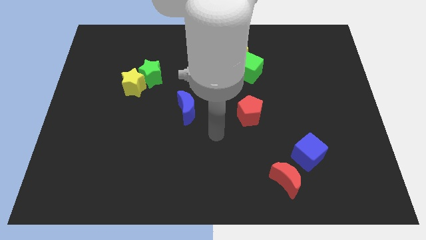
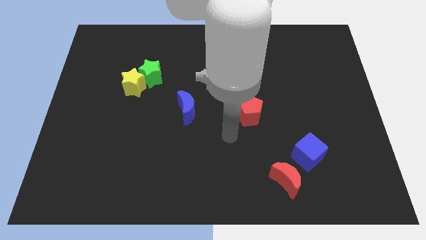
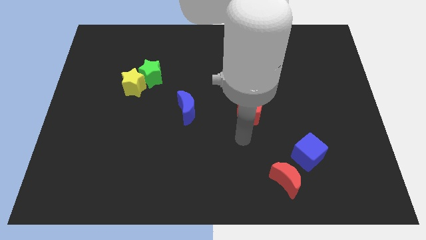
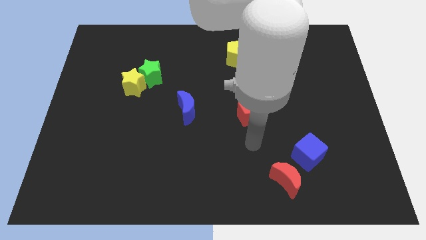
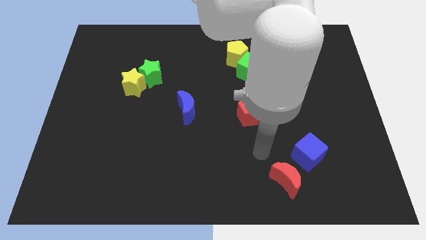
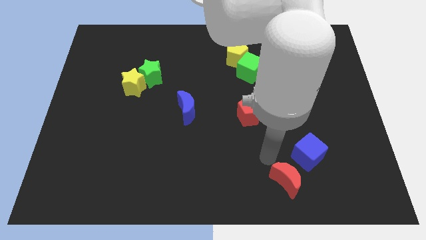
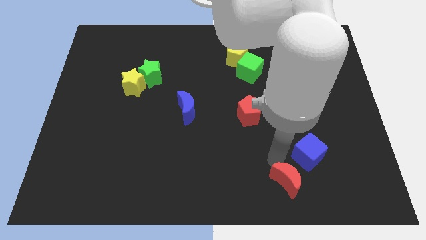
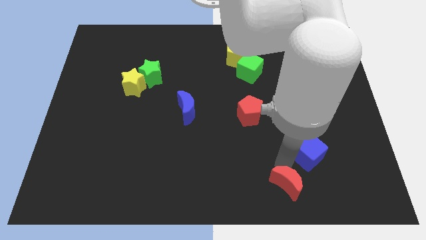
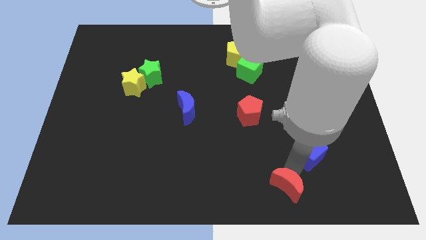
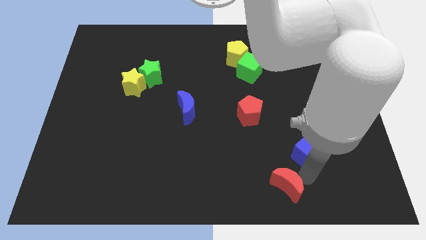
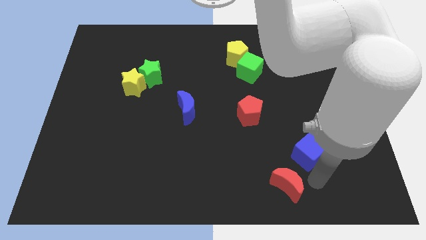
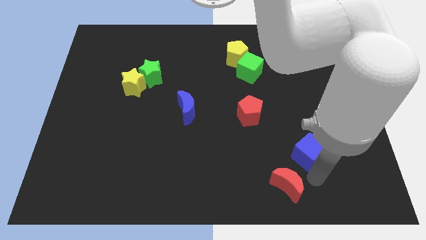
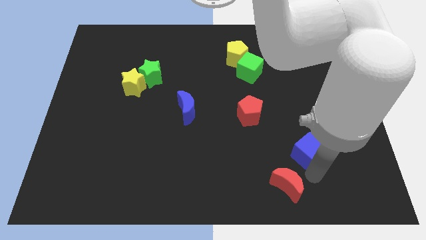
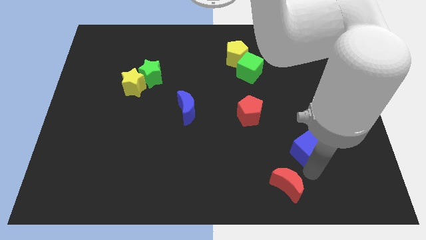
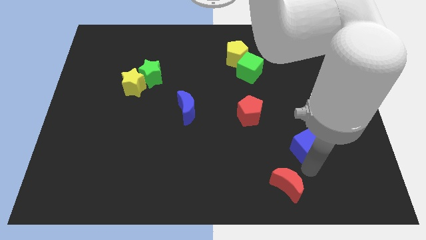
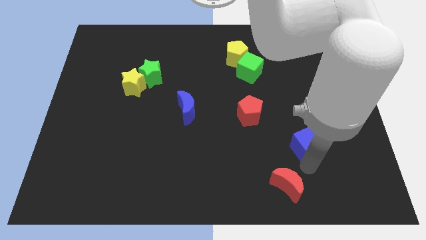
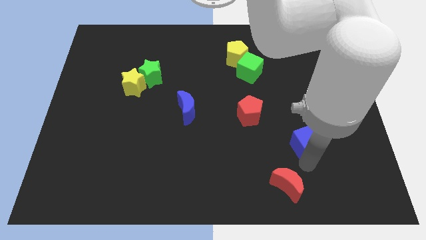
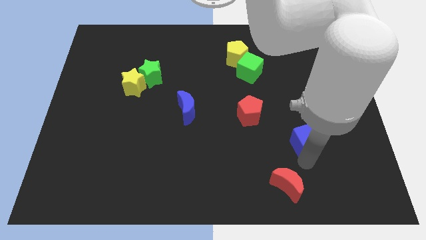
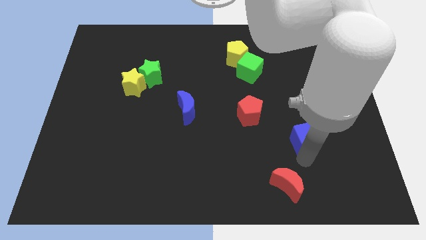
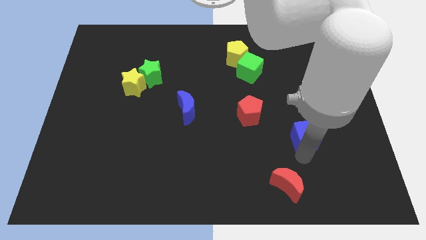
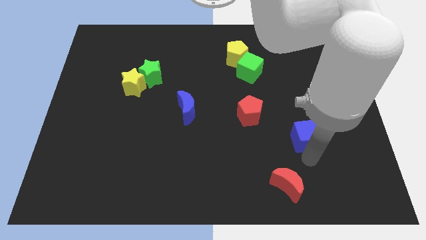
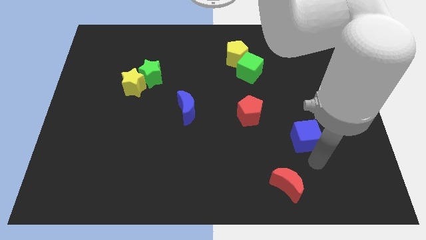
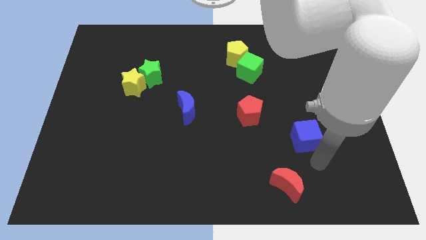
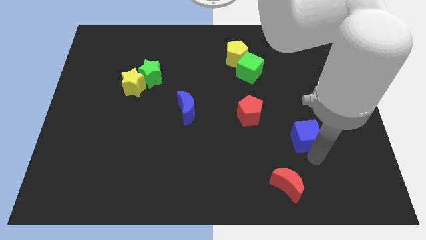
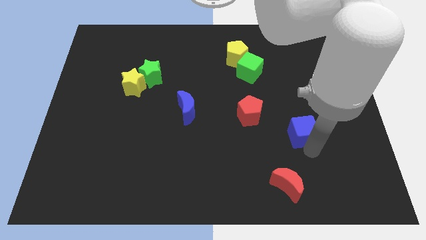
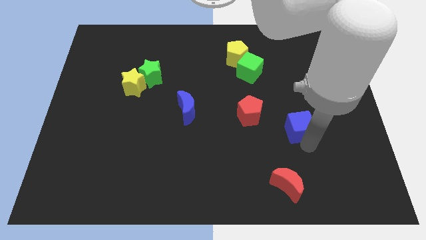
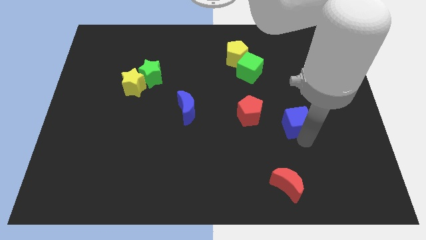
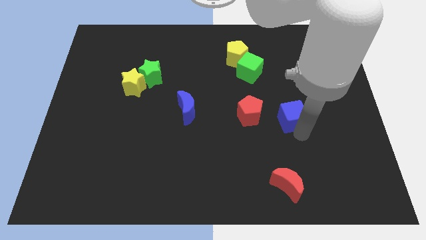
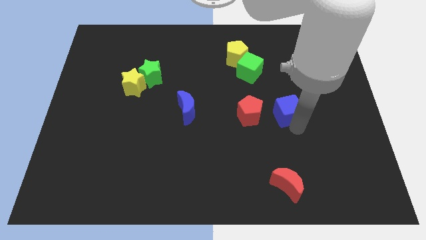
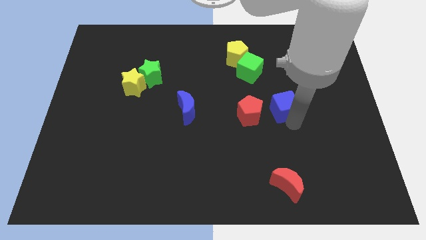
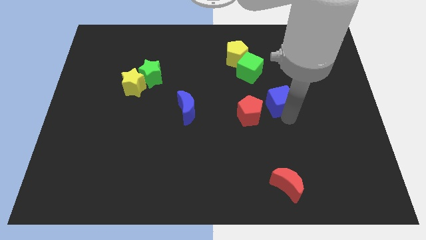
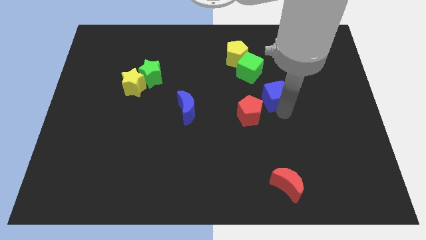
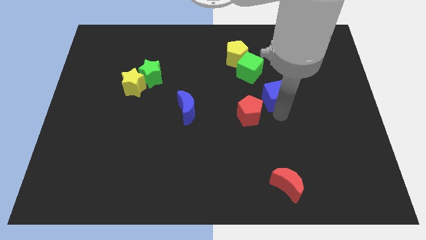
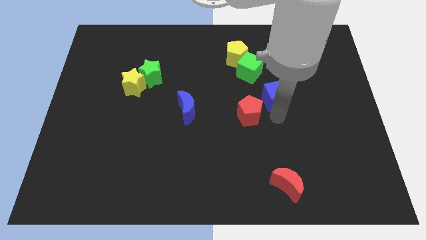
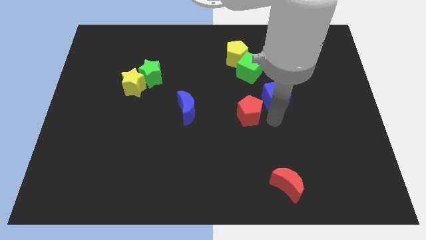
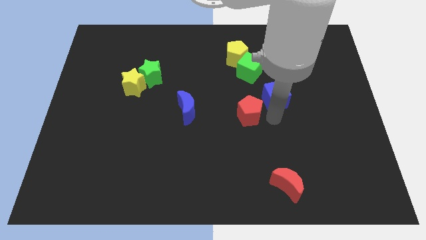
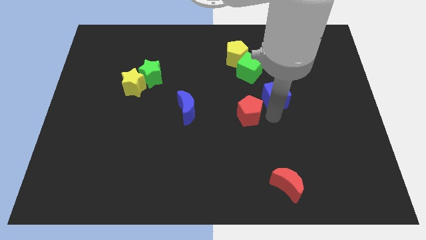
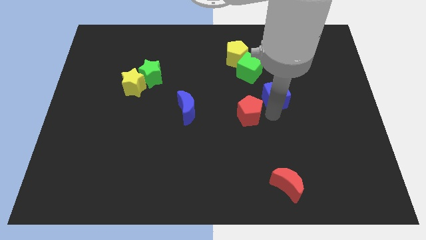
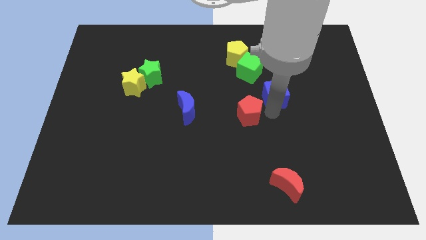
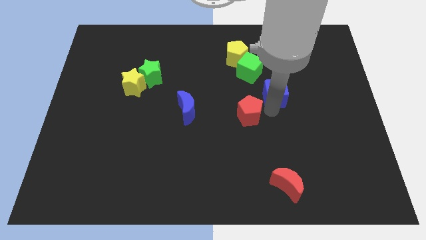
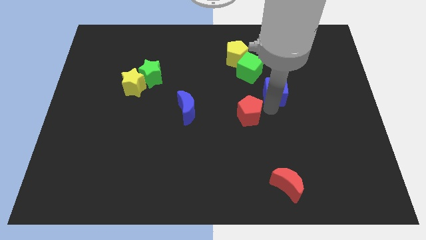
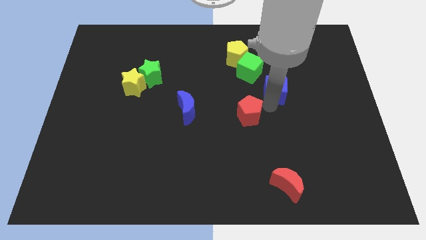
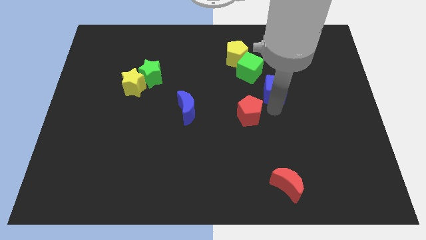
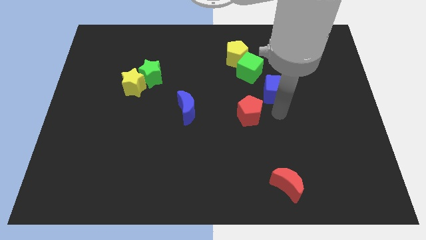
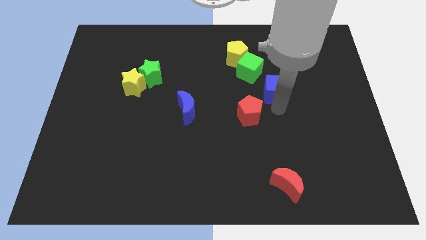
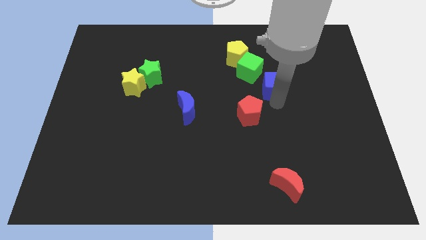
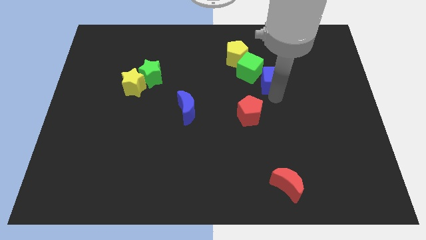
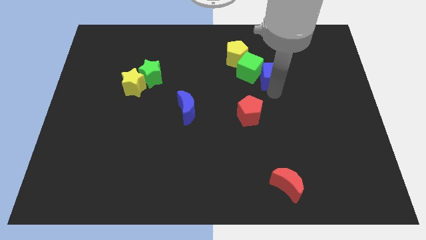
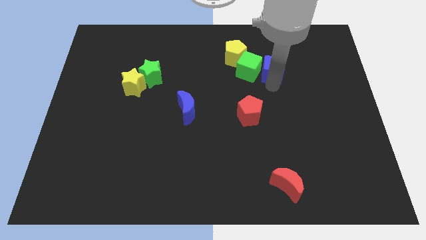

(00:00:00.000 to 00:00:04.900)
slide the blue cube to the top right side of the green cube

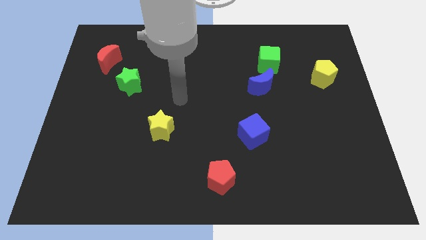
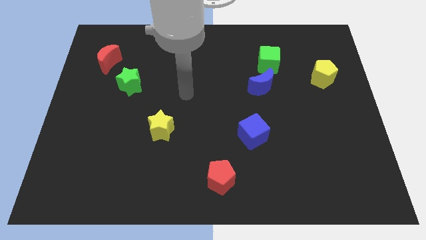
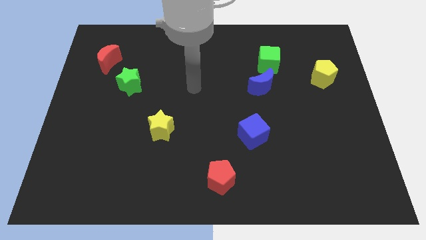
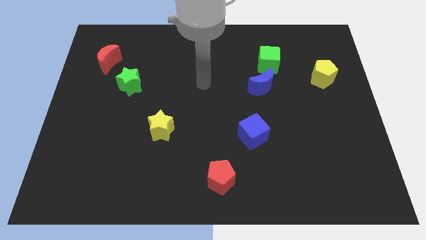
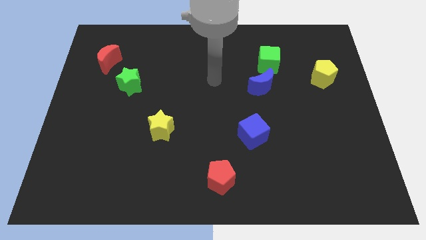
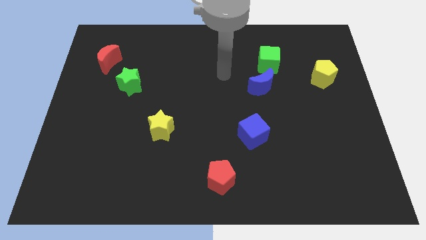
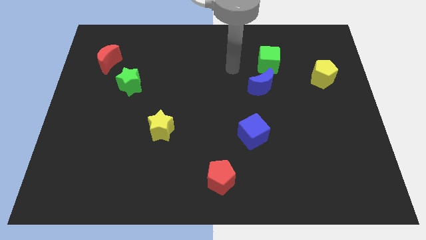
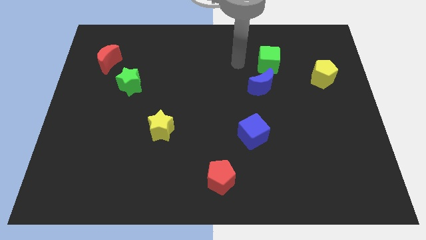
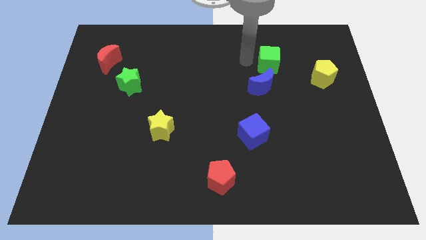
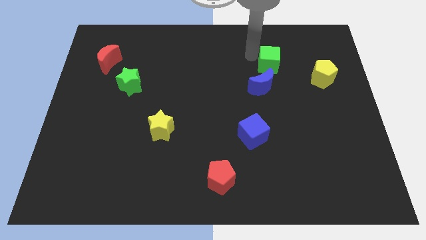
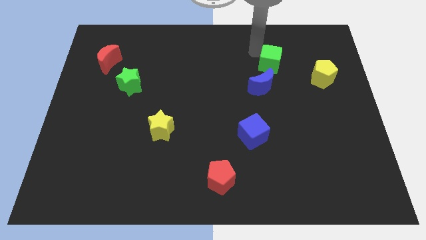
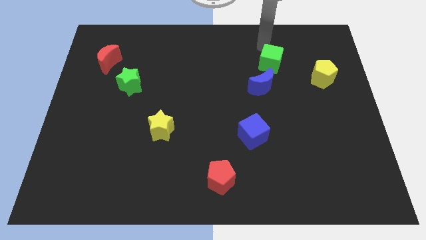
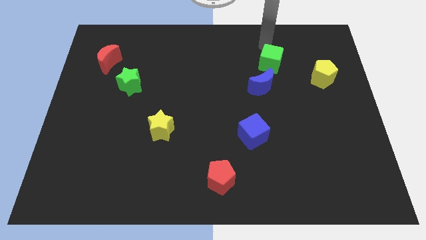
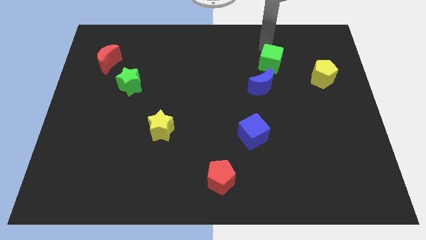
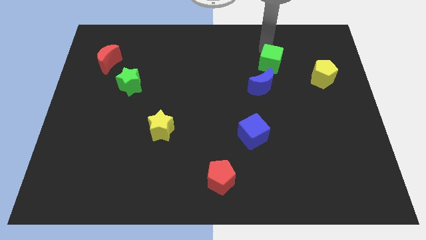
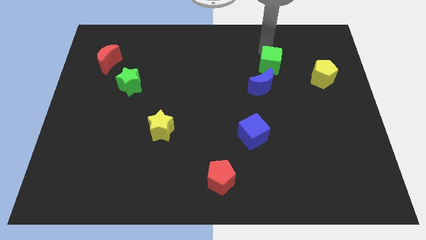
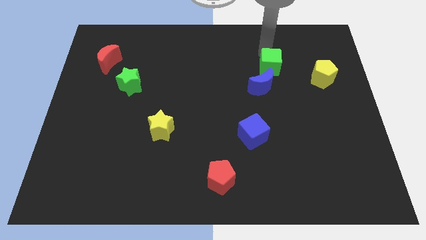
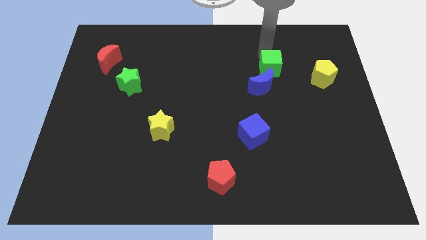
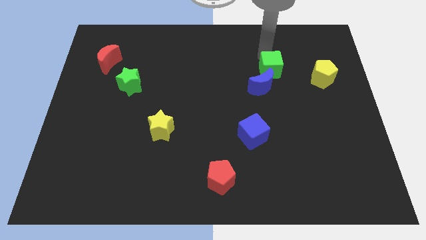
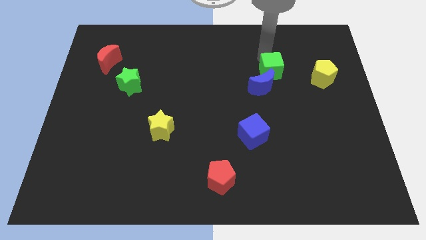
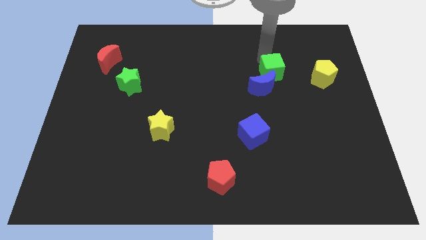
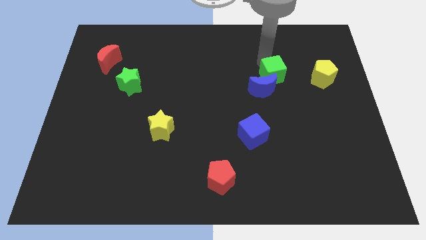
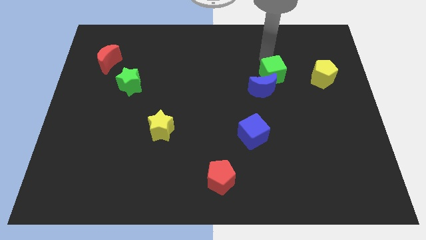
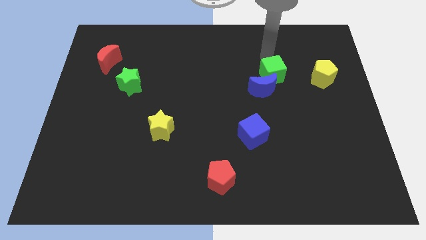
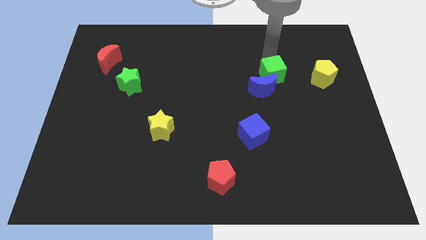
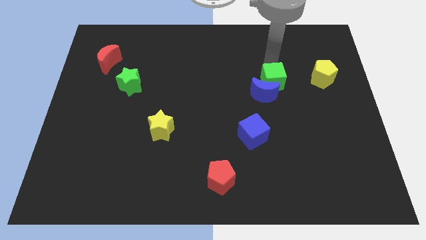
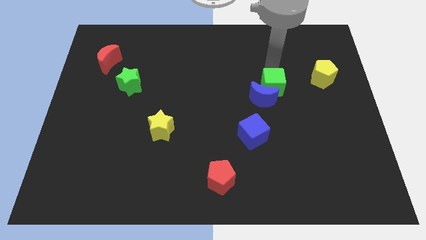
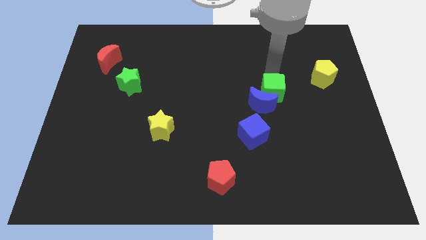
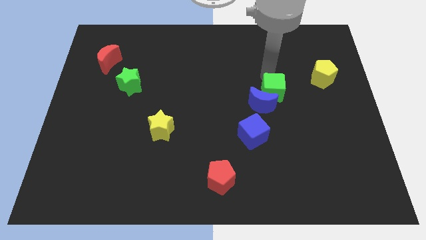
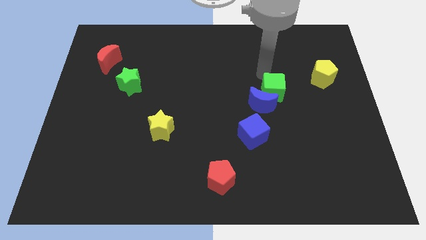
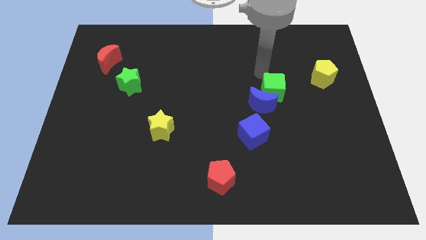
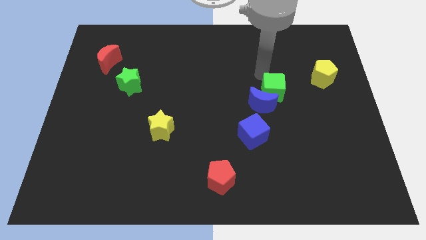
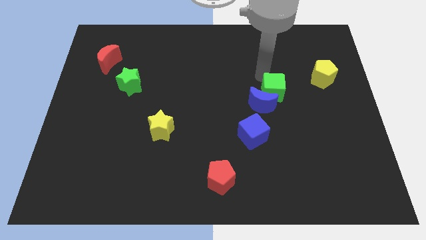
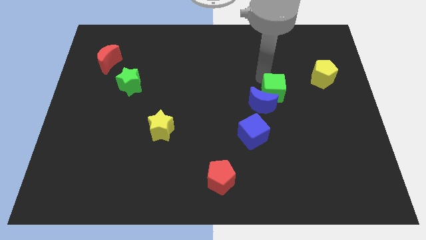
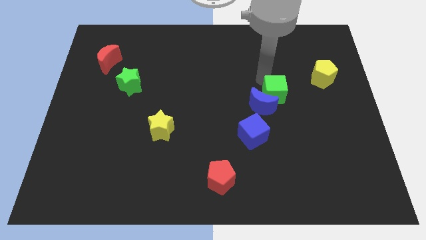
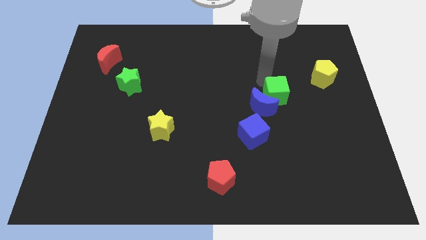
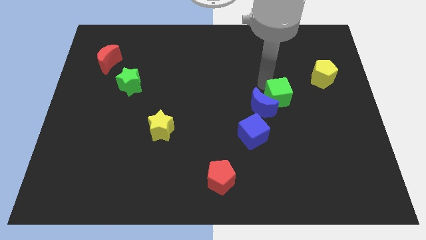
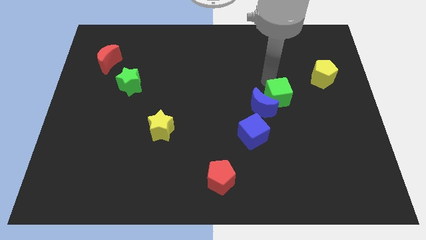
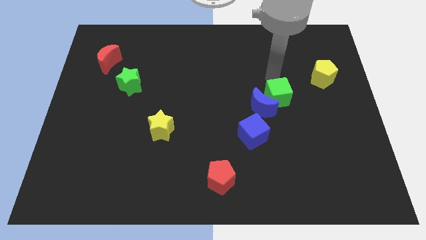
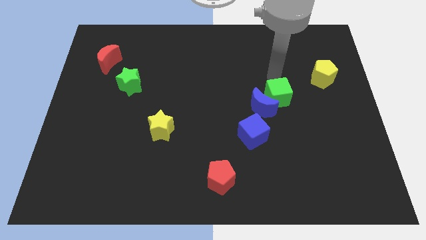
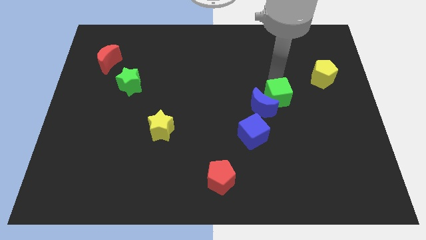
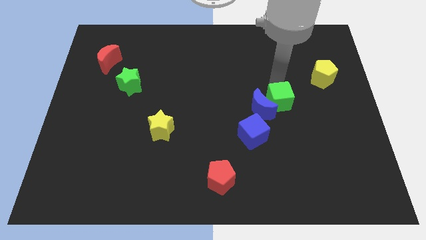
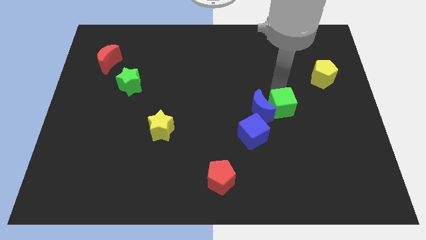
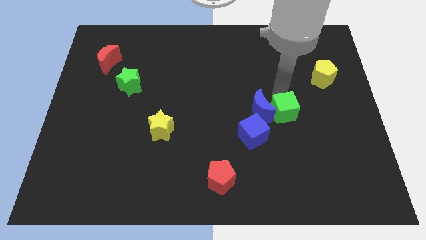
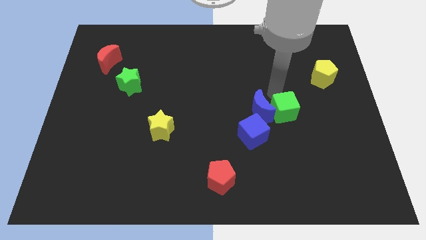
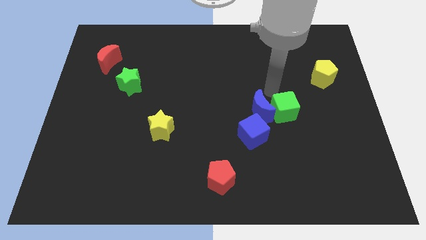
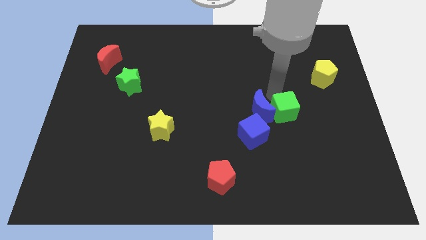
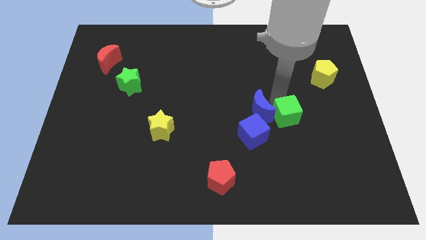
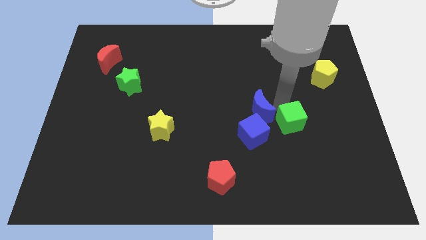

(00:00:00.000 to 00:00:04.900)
push the green cube to the right of the blue cube
